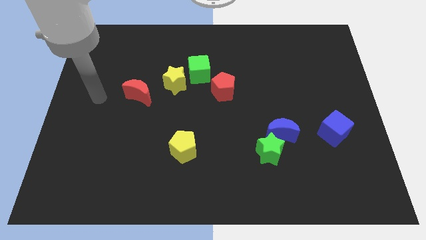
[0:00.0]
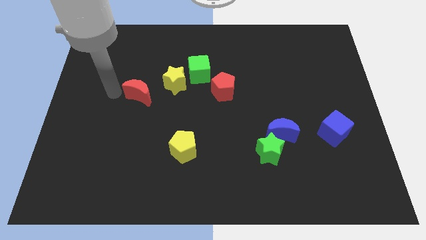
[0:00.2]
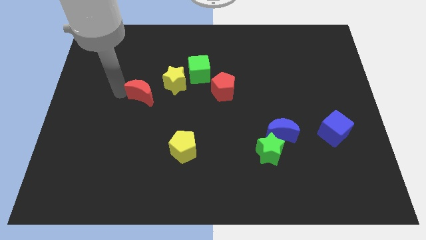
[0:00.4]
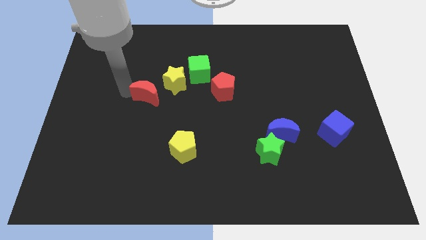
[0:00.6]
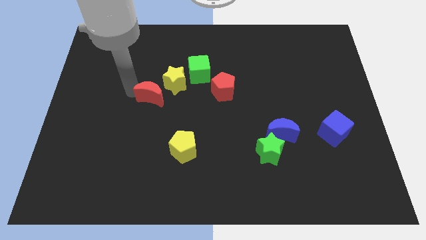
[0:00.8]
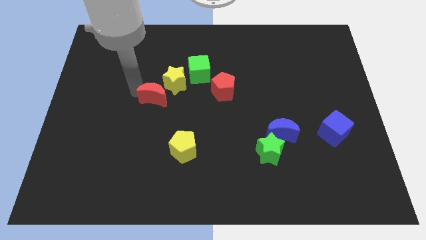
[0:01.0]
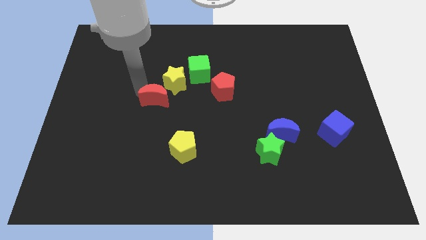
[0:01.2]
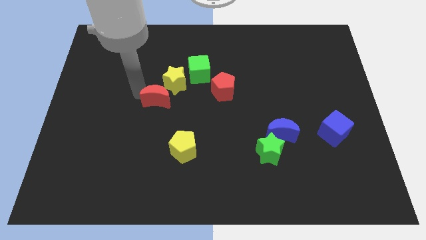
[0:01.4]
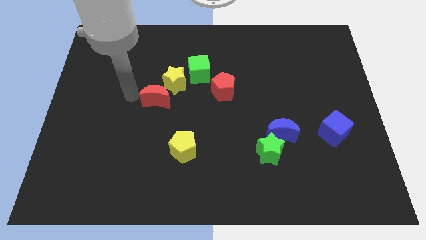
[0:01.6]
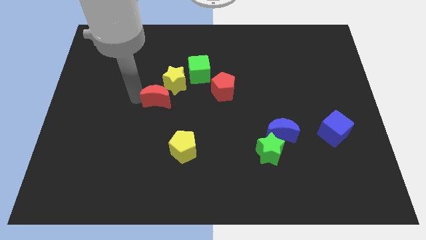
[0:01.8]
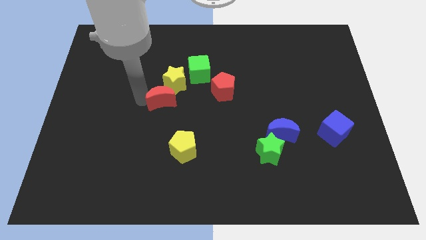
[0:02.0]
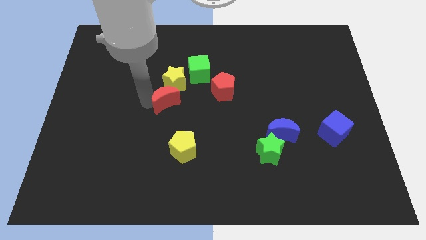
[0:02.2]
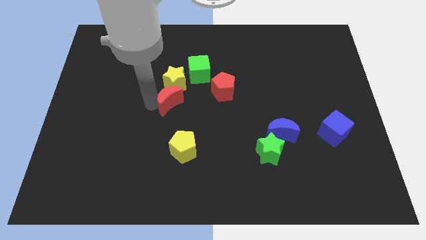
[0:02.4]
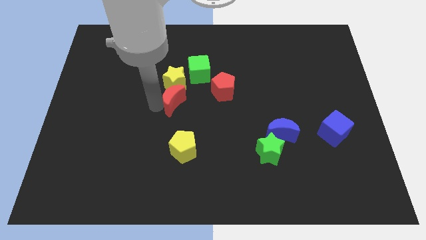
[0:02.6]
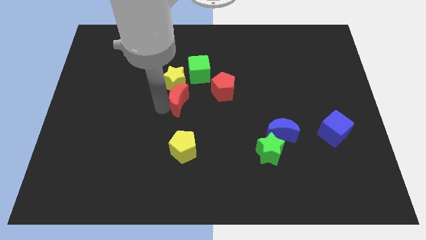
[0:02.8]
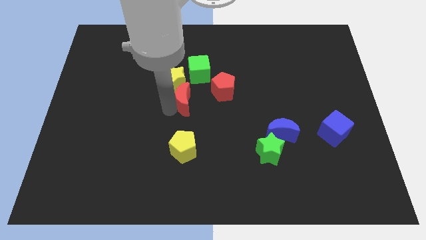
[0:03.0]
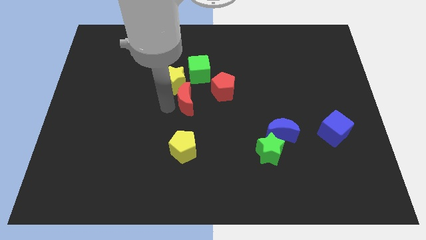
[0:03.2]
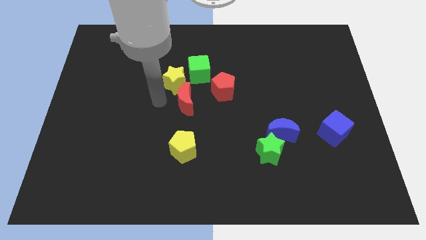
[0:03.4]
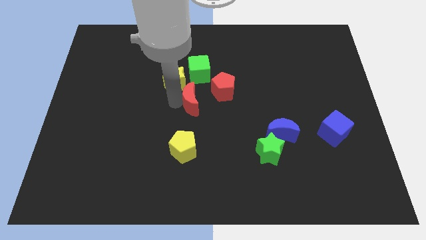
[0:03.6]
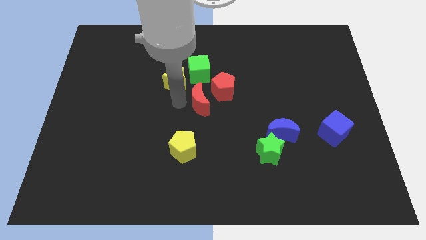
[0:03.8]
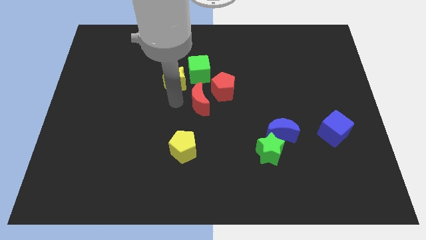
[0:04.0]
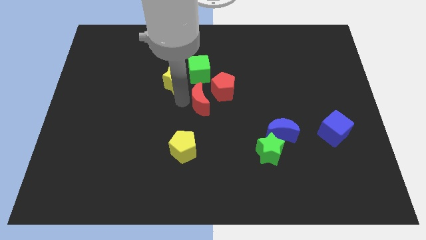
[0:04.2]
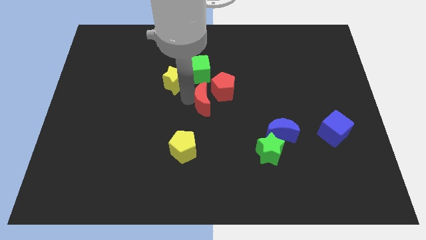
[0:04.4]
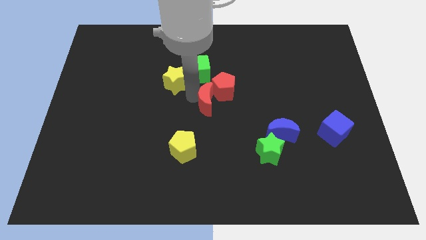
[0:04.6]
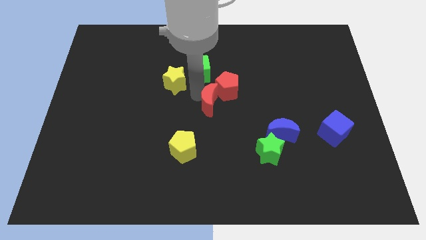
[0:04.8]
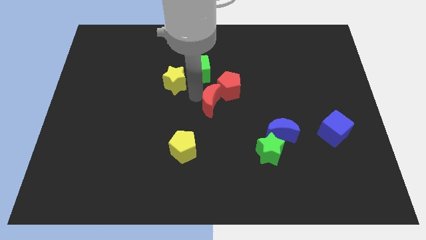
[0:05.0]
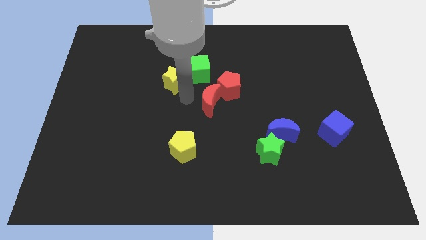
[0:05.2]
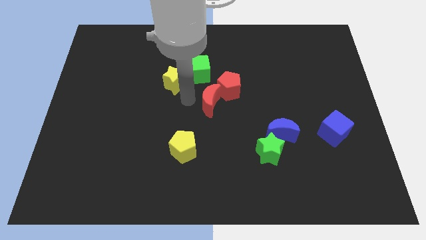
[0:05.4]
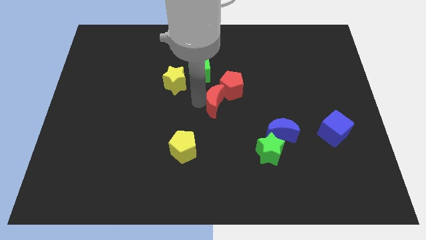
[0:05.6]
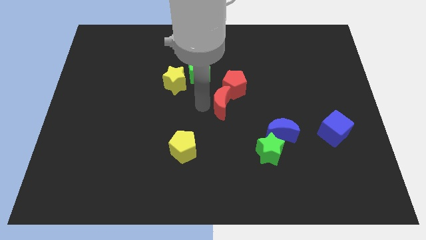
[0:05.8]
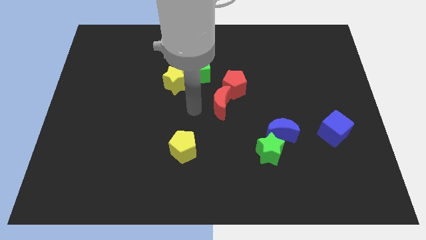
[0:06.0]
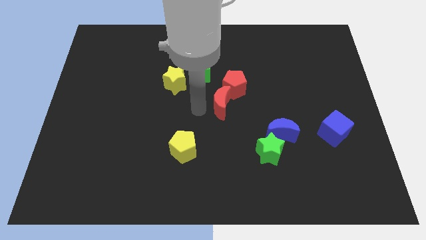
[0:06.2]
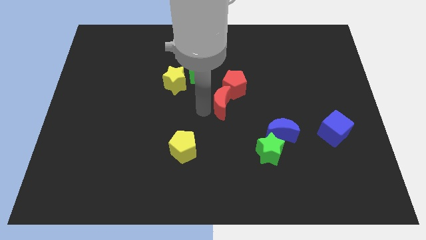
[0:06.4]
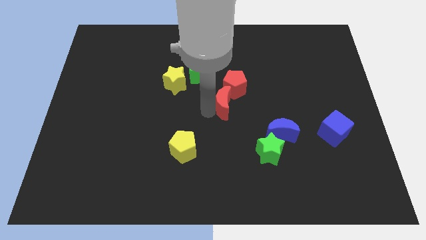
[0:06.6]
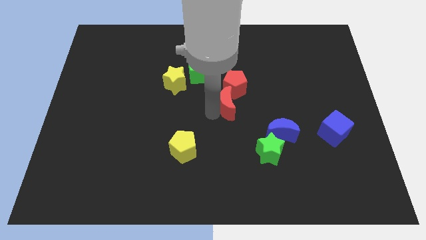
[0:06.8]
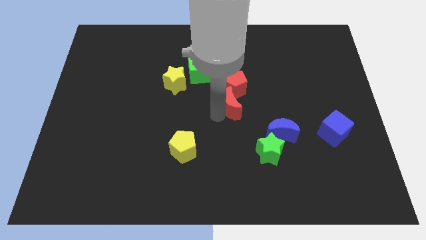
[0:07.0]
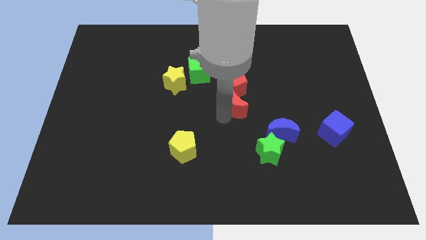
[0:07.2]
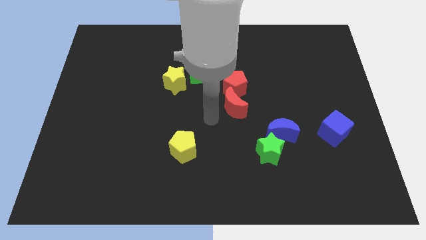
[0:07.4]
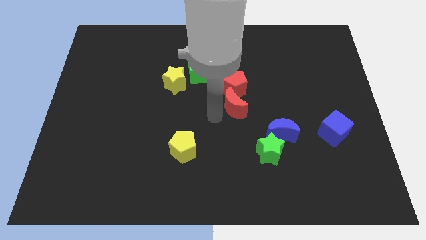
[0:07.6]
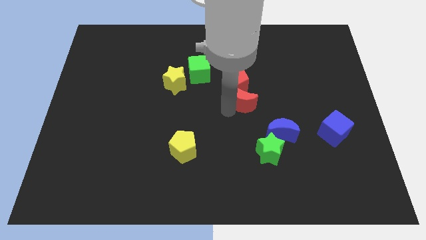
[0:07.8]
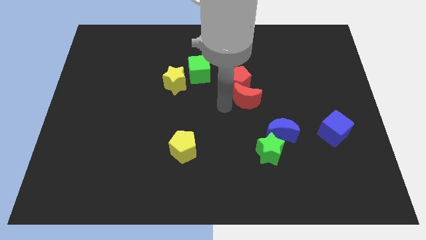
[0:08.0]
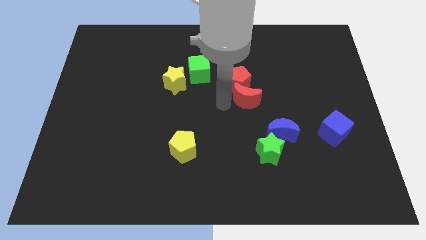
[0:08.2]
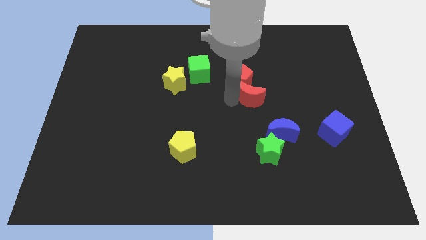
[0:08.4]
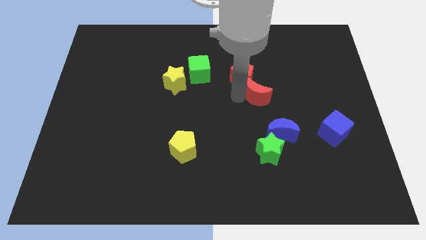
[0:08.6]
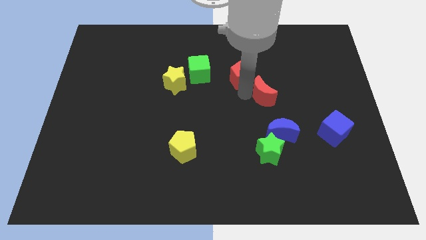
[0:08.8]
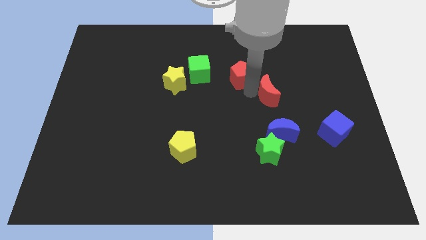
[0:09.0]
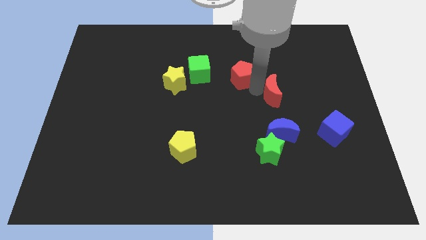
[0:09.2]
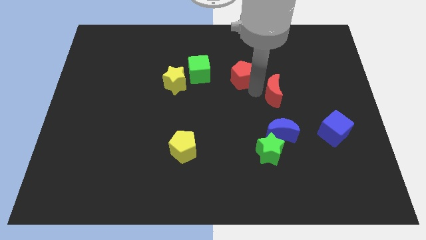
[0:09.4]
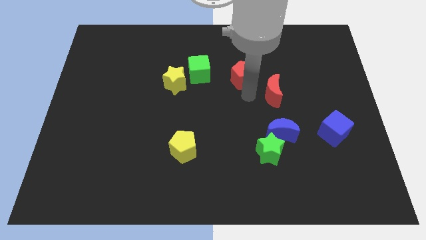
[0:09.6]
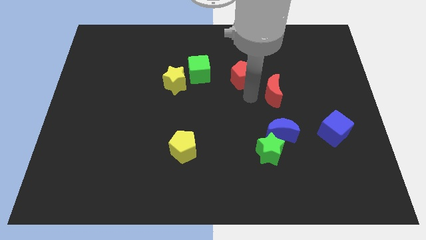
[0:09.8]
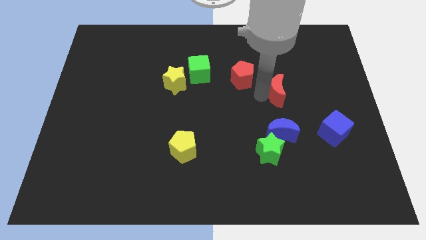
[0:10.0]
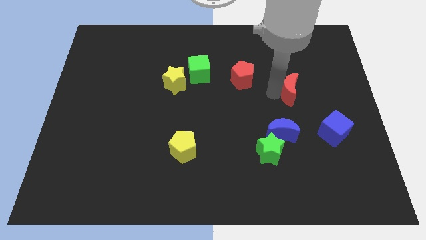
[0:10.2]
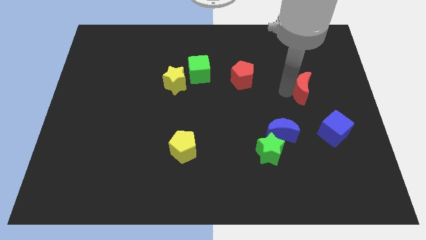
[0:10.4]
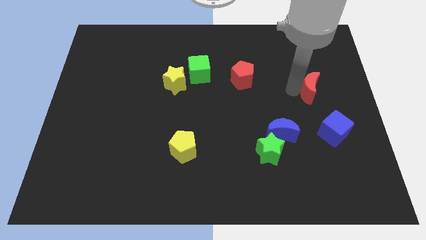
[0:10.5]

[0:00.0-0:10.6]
slide the red moon to the top of the blue cube
